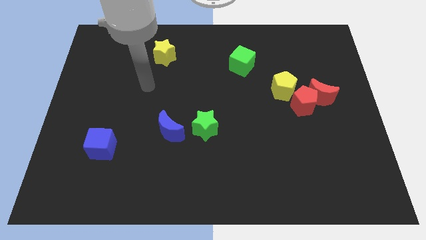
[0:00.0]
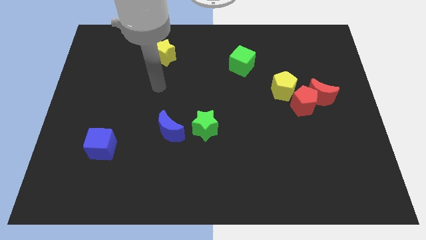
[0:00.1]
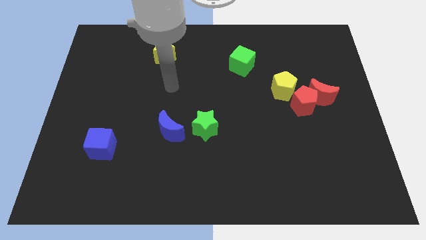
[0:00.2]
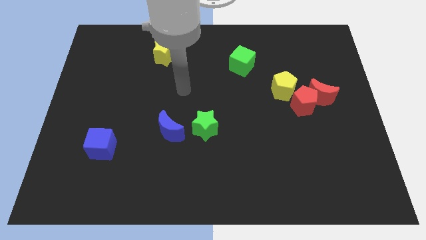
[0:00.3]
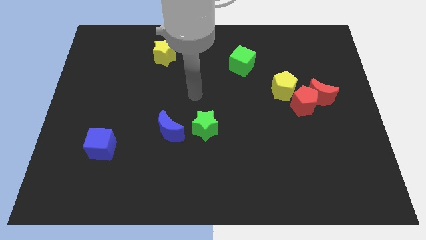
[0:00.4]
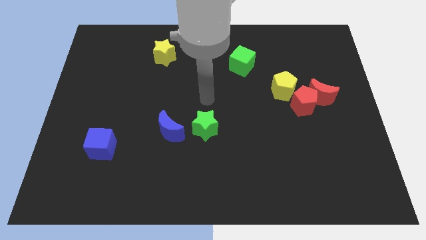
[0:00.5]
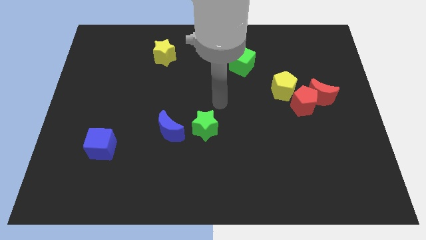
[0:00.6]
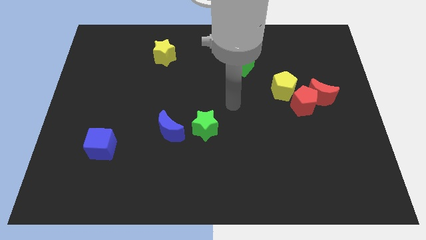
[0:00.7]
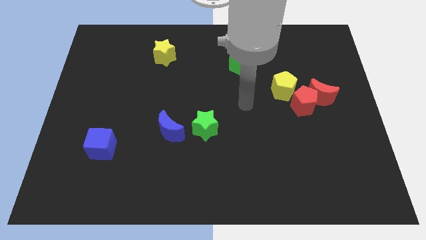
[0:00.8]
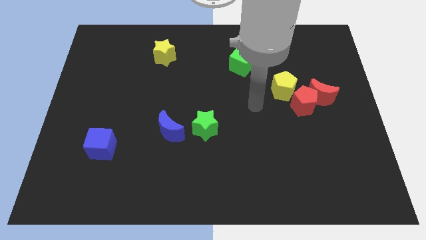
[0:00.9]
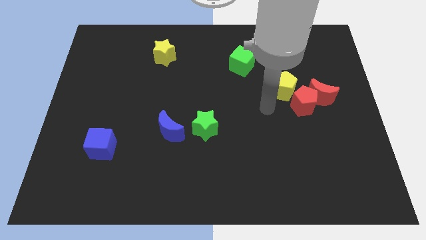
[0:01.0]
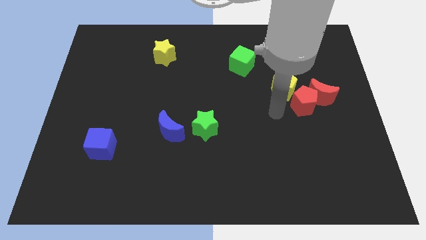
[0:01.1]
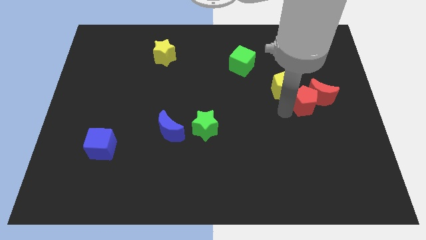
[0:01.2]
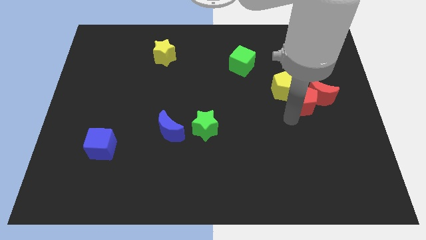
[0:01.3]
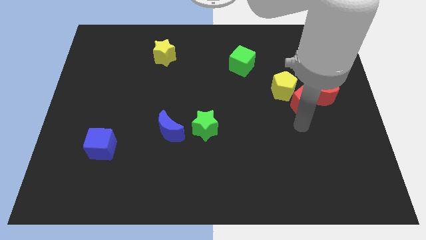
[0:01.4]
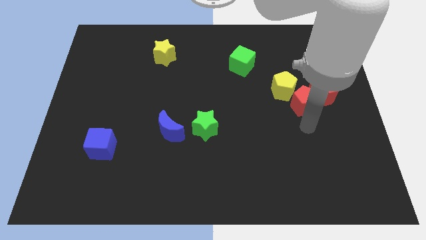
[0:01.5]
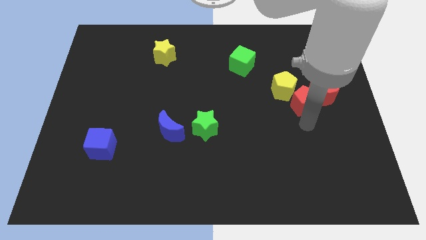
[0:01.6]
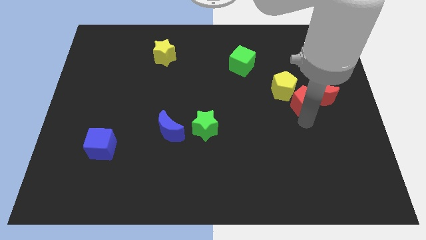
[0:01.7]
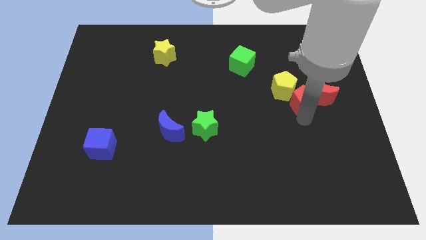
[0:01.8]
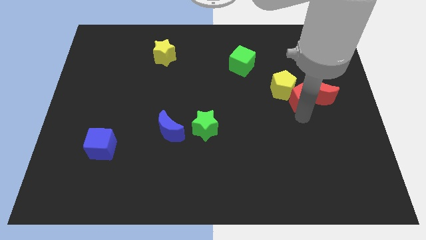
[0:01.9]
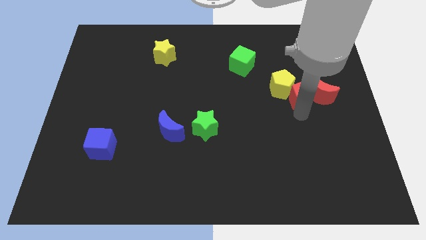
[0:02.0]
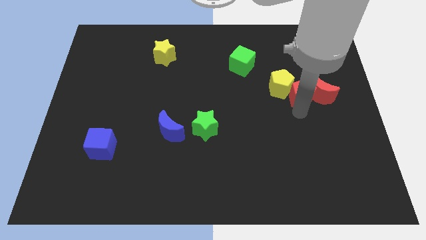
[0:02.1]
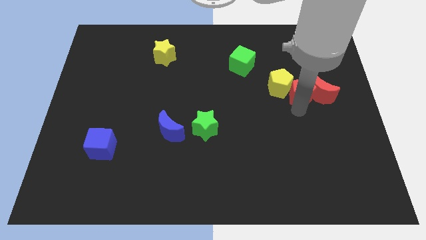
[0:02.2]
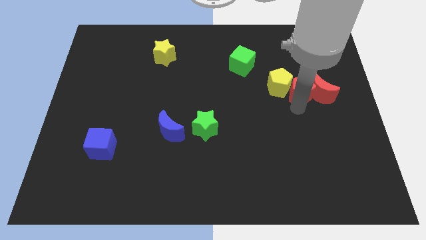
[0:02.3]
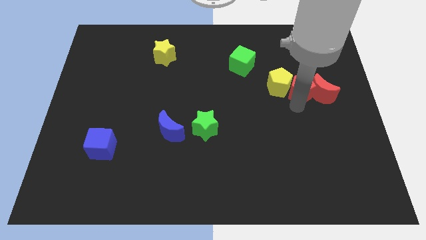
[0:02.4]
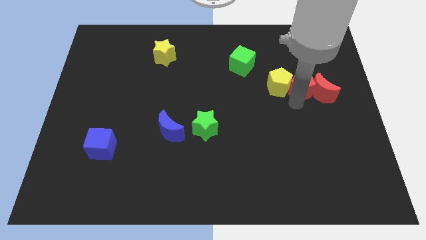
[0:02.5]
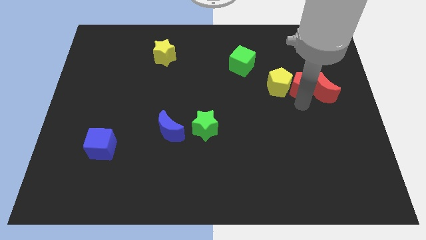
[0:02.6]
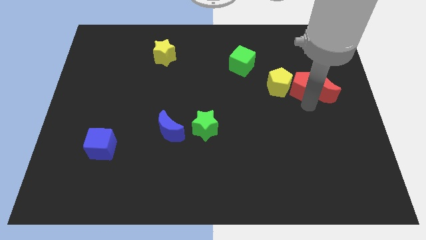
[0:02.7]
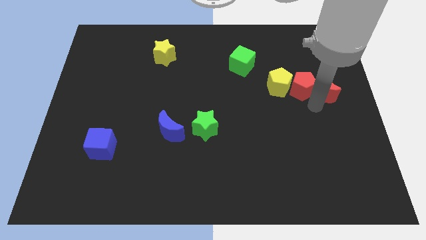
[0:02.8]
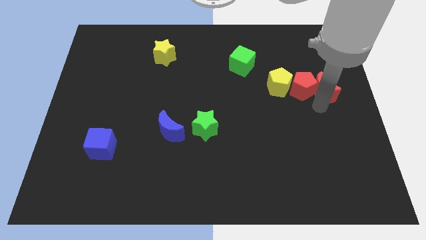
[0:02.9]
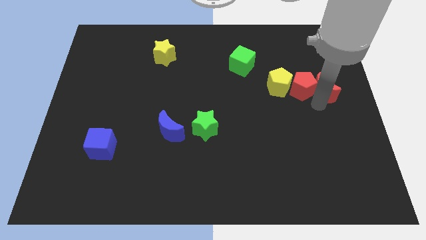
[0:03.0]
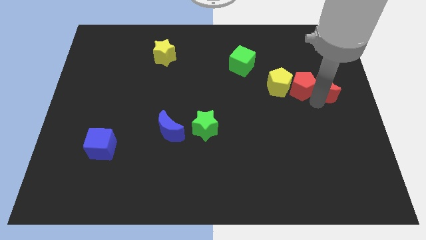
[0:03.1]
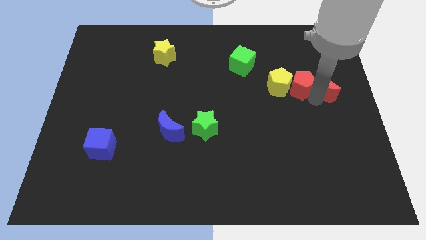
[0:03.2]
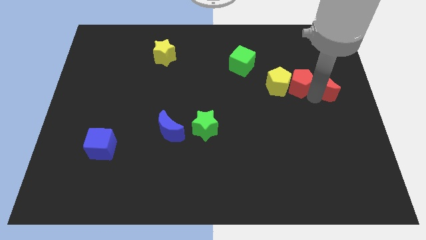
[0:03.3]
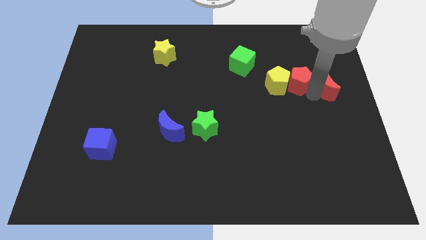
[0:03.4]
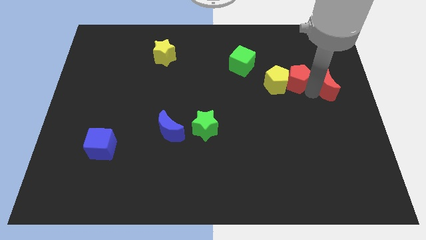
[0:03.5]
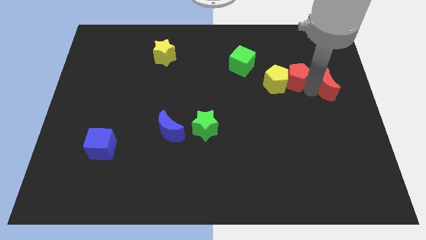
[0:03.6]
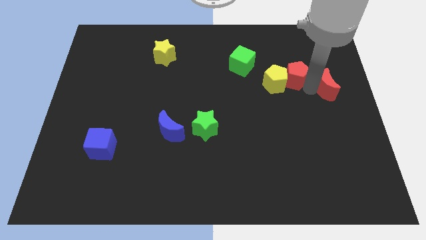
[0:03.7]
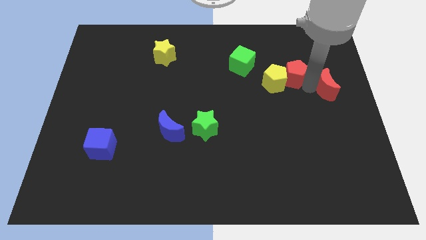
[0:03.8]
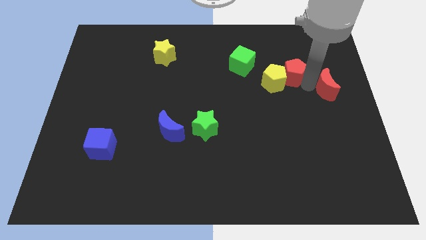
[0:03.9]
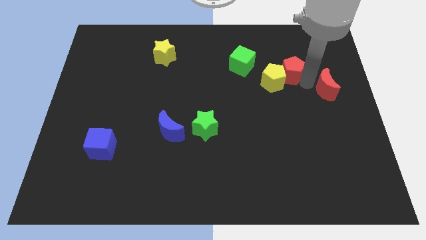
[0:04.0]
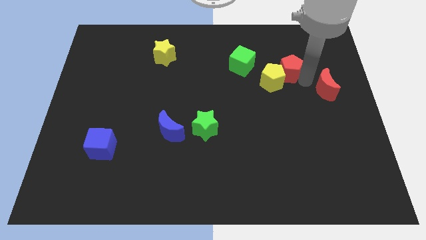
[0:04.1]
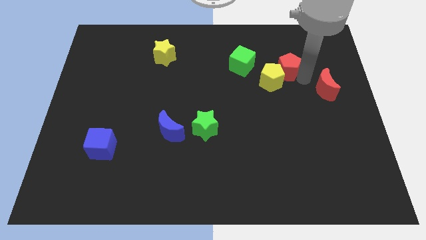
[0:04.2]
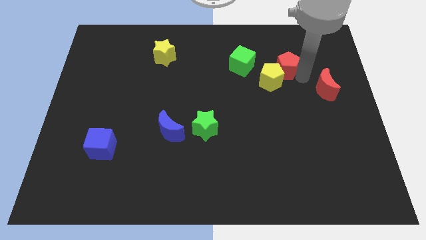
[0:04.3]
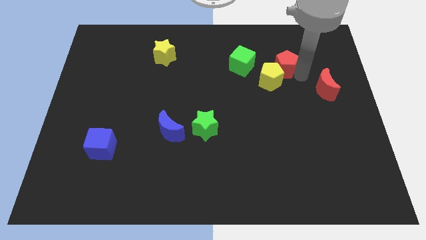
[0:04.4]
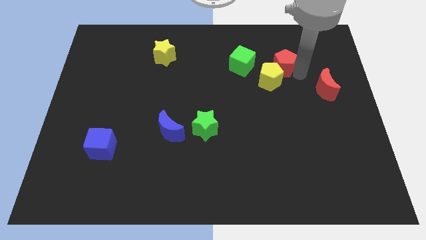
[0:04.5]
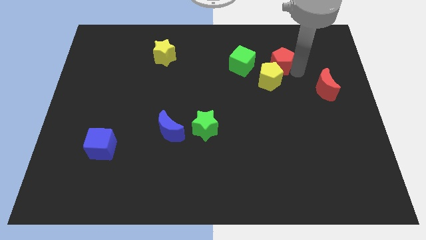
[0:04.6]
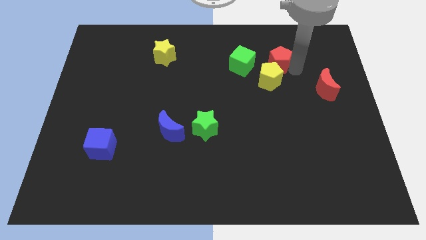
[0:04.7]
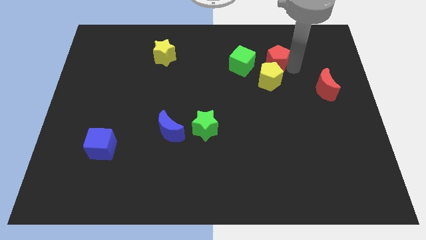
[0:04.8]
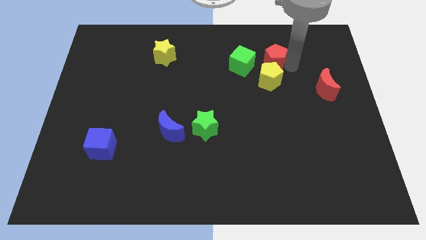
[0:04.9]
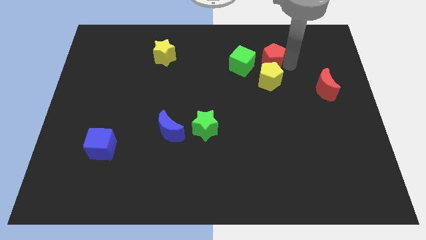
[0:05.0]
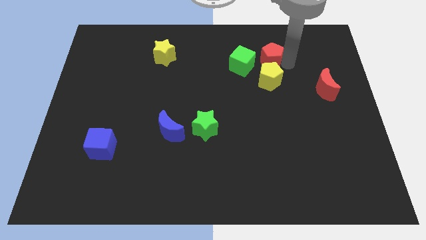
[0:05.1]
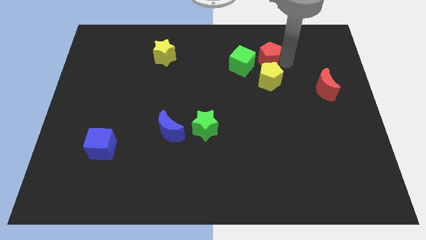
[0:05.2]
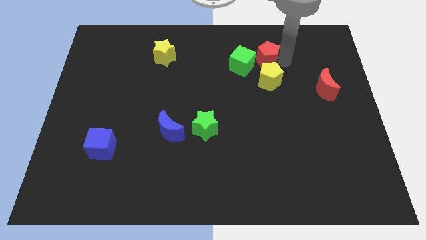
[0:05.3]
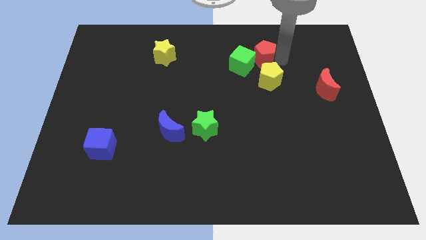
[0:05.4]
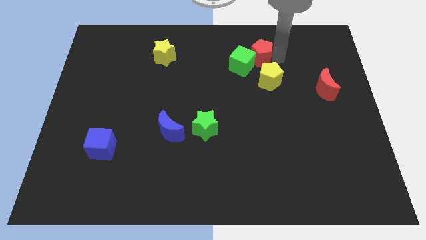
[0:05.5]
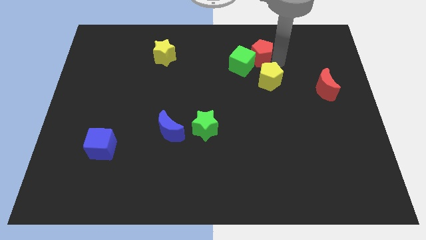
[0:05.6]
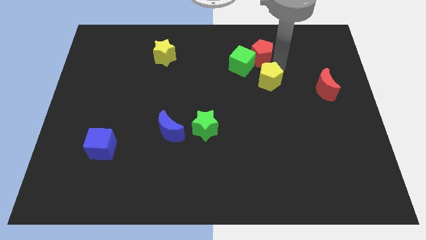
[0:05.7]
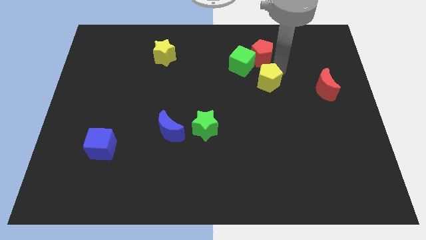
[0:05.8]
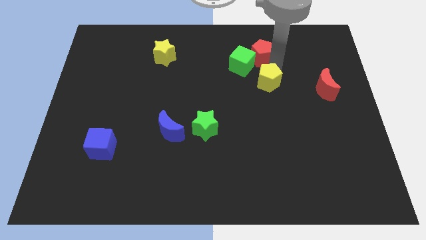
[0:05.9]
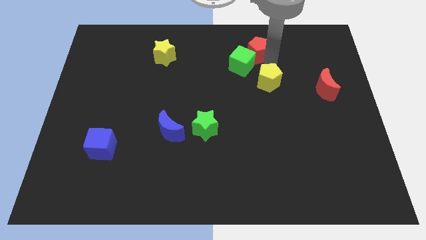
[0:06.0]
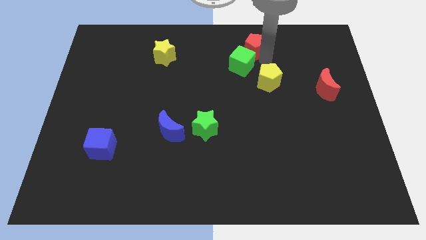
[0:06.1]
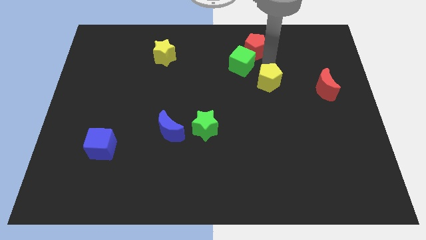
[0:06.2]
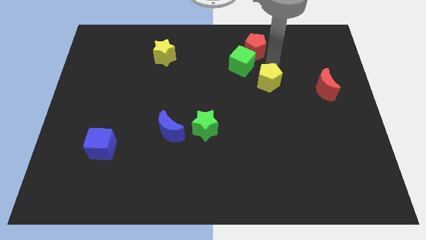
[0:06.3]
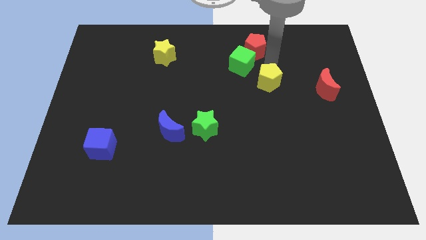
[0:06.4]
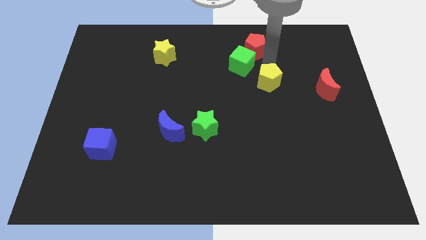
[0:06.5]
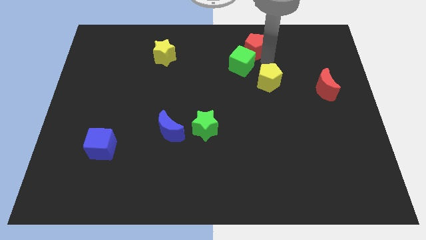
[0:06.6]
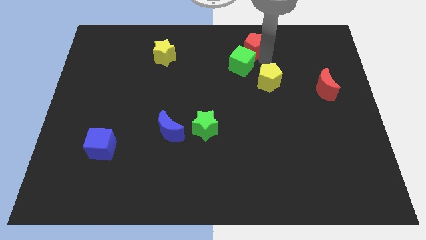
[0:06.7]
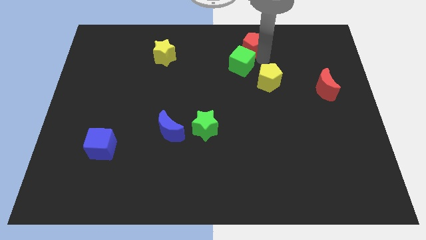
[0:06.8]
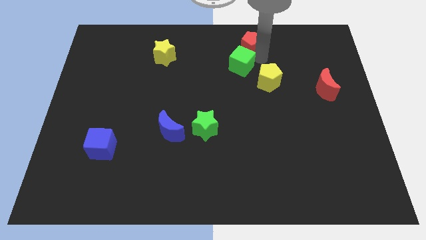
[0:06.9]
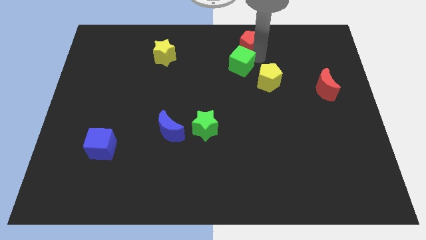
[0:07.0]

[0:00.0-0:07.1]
push the red pentagon to the top side

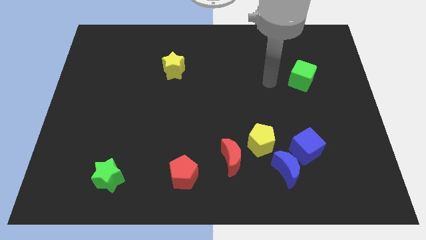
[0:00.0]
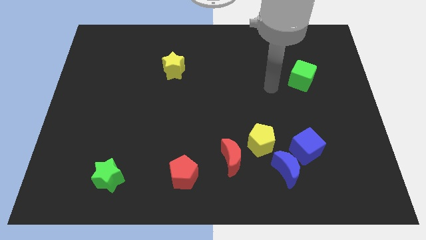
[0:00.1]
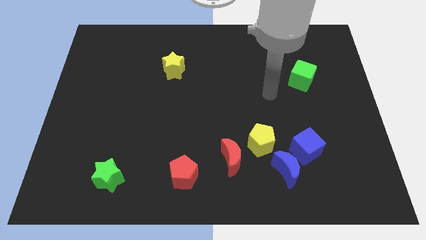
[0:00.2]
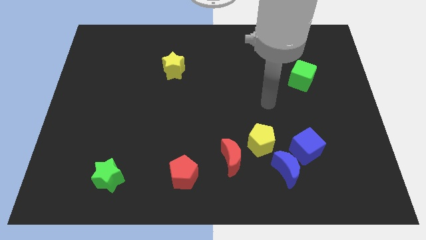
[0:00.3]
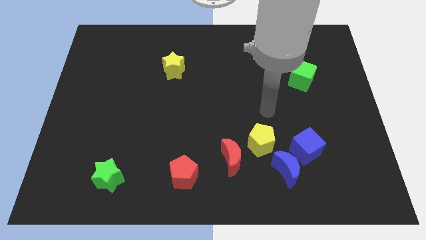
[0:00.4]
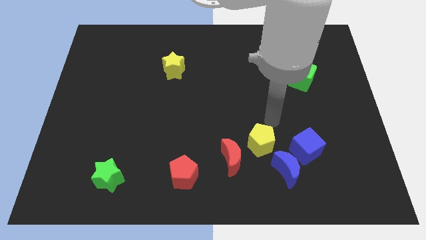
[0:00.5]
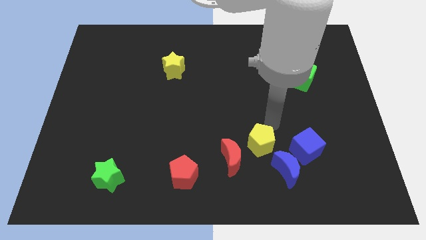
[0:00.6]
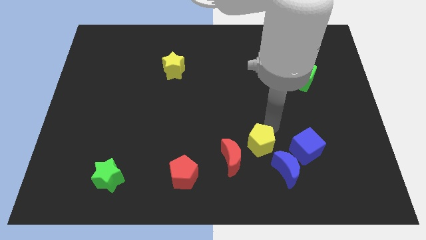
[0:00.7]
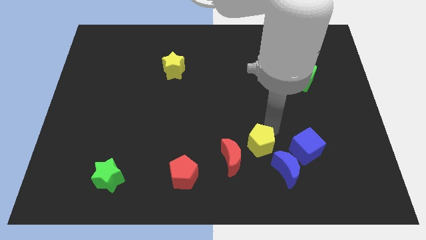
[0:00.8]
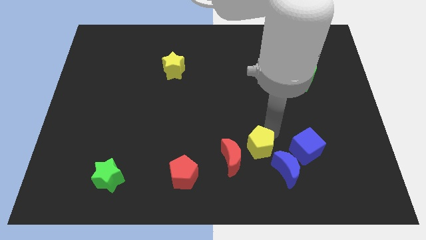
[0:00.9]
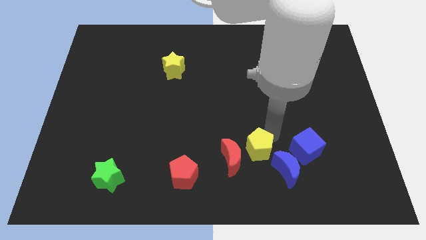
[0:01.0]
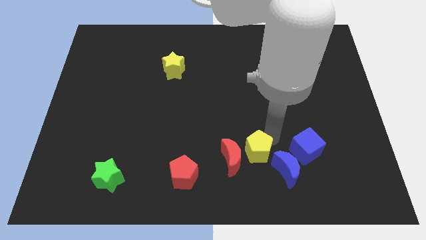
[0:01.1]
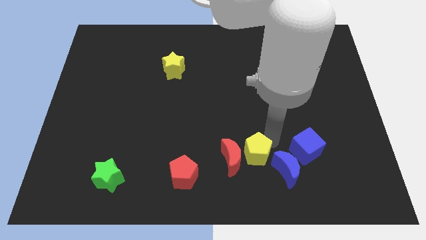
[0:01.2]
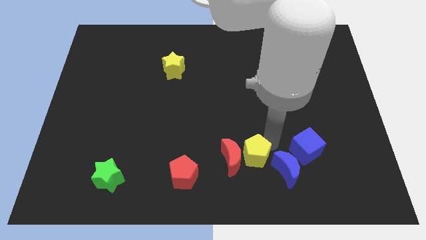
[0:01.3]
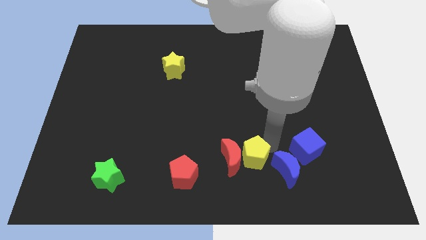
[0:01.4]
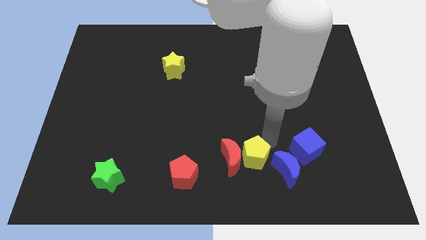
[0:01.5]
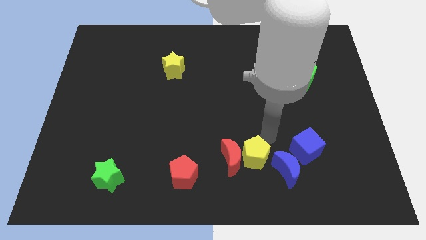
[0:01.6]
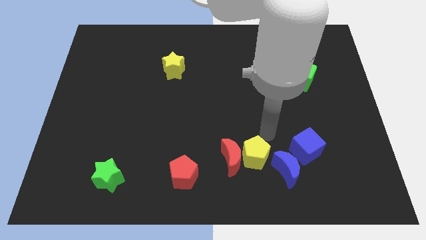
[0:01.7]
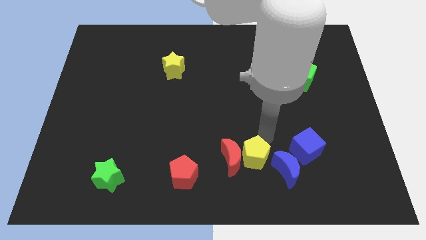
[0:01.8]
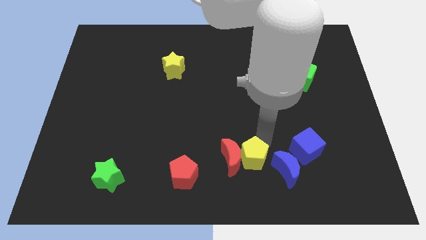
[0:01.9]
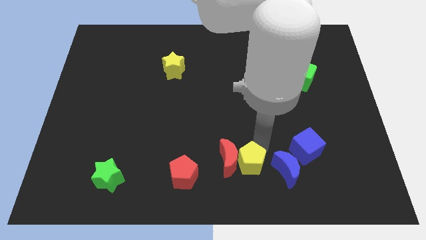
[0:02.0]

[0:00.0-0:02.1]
move the yellow pentagon to the bottom side
